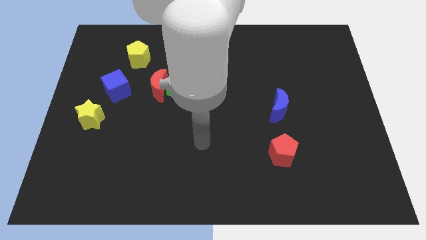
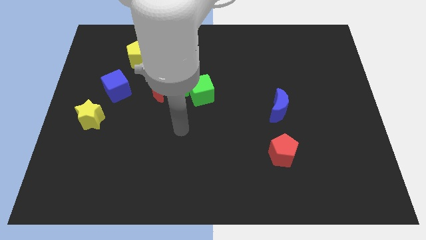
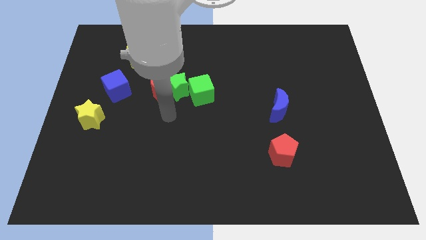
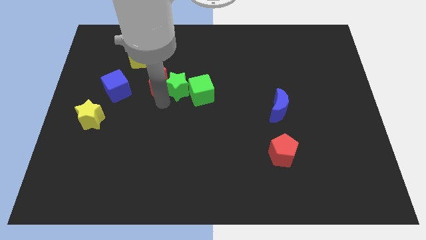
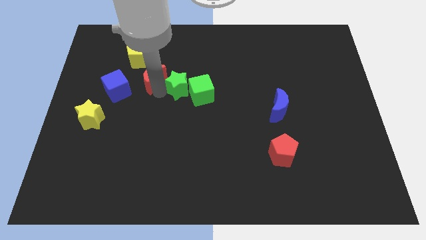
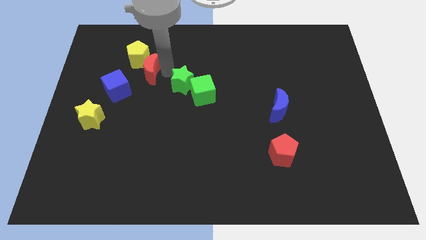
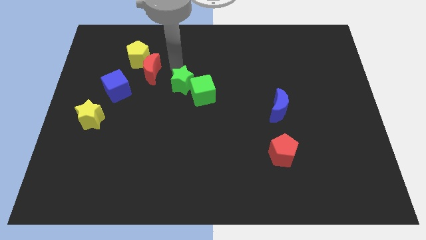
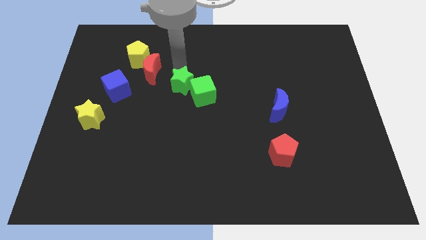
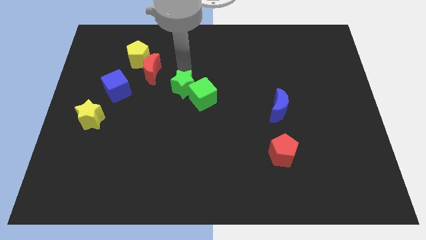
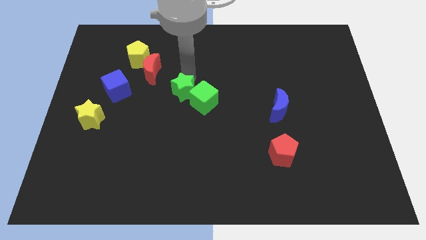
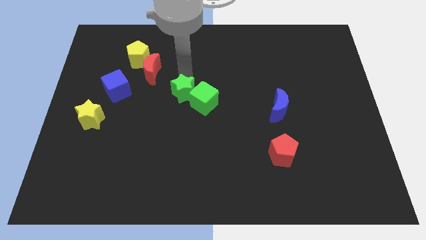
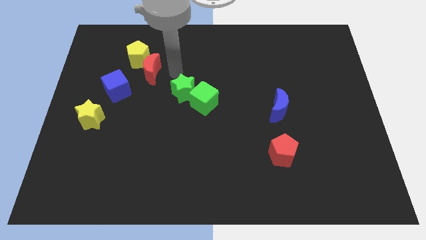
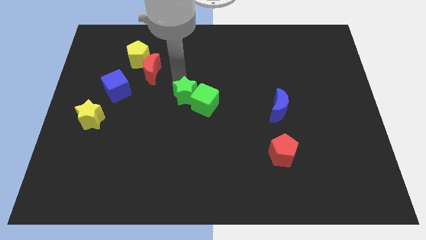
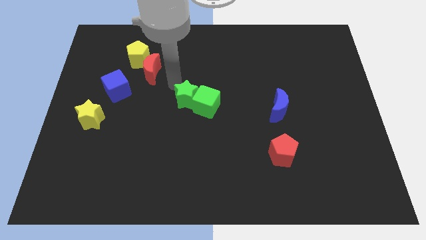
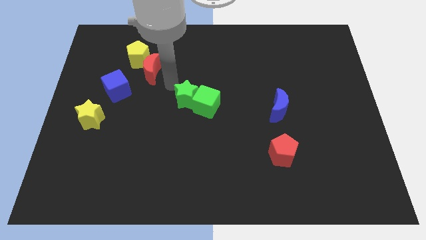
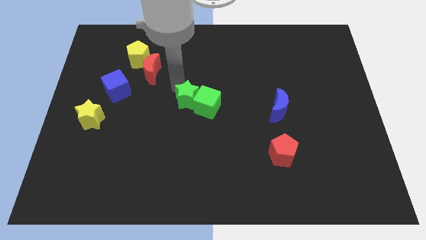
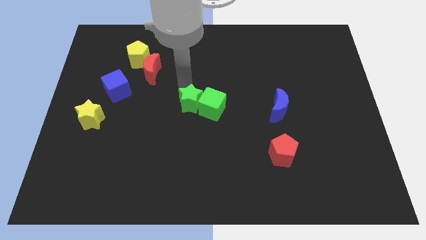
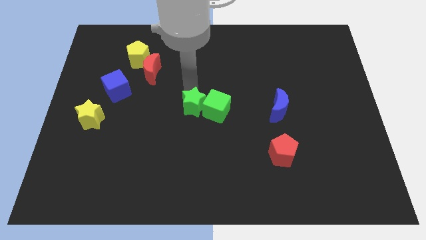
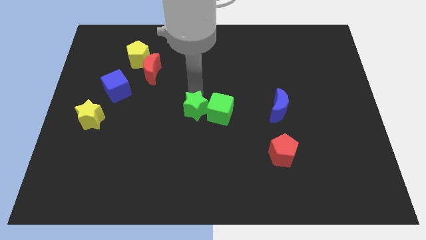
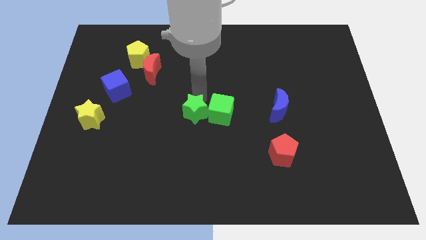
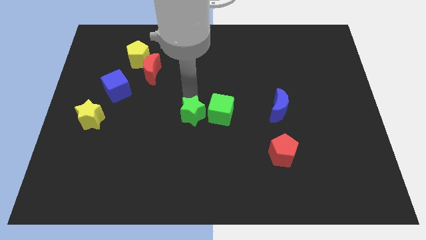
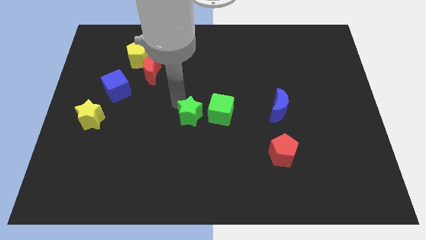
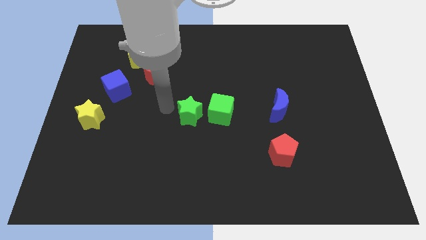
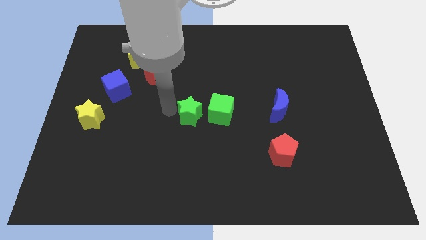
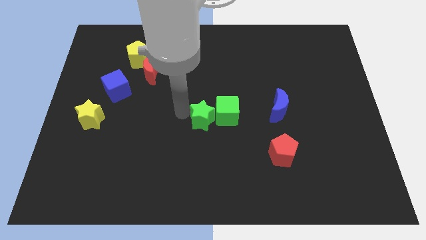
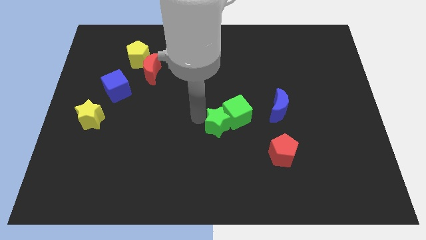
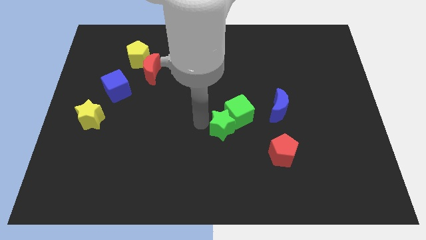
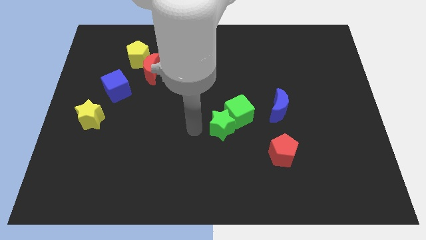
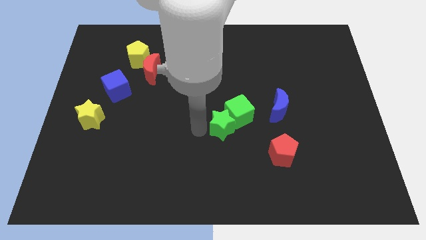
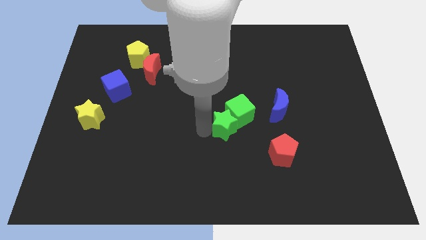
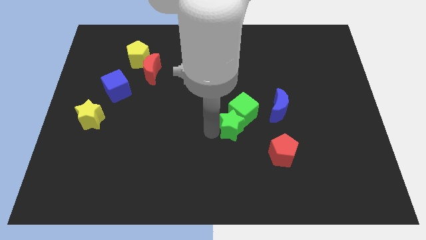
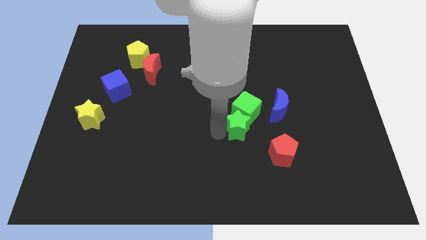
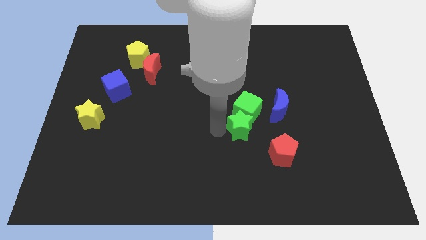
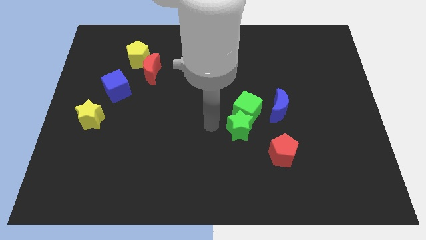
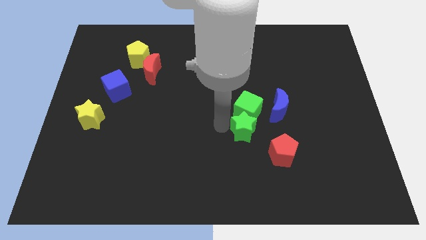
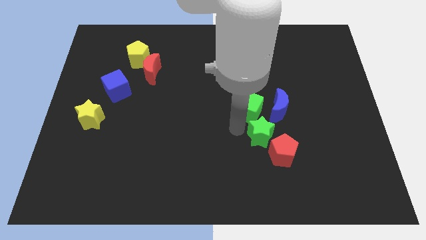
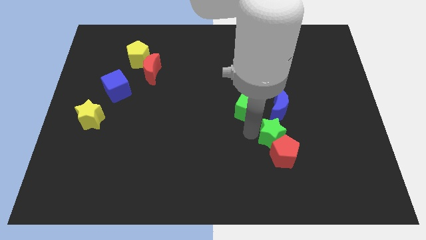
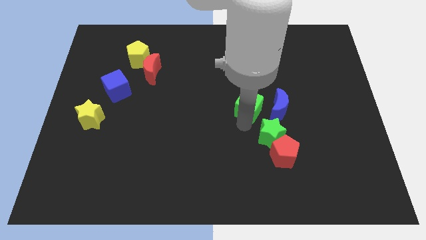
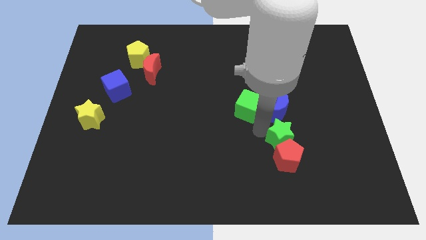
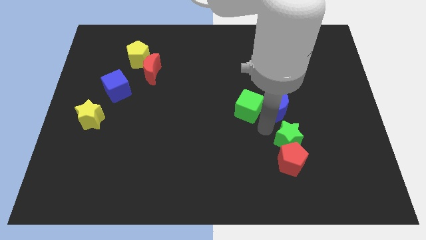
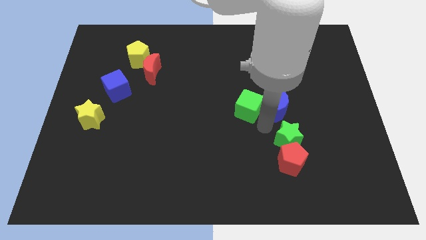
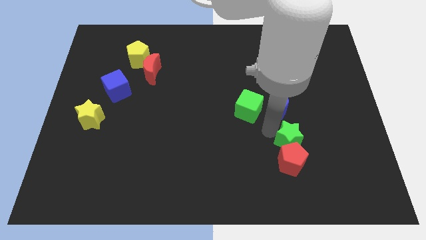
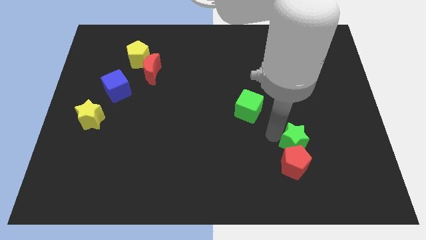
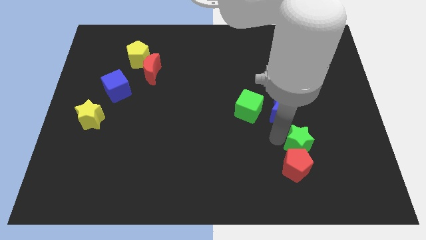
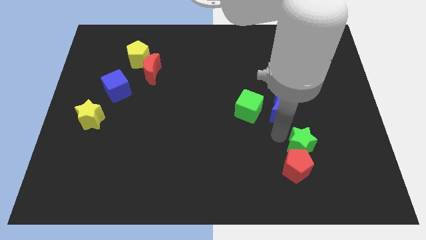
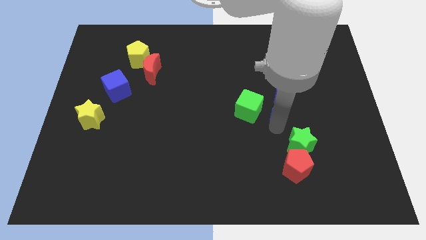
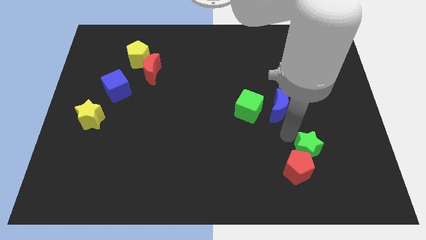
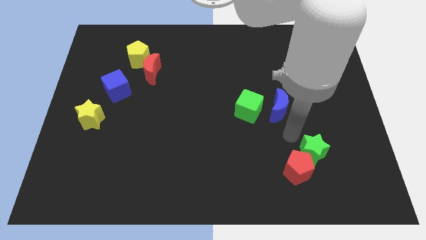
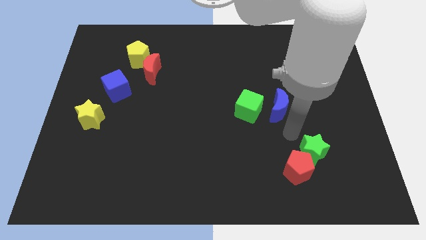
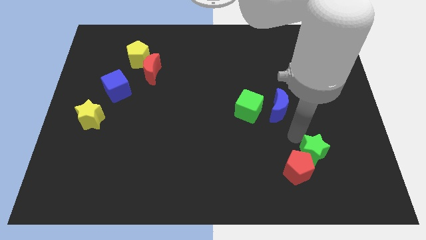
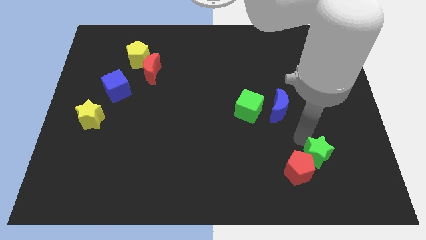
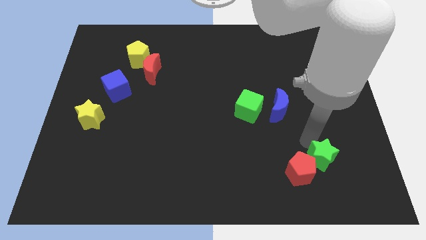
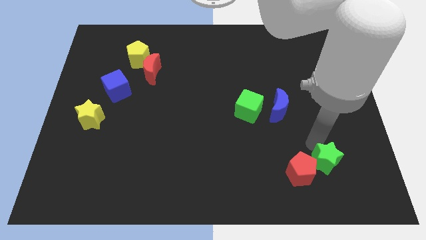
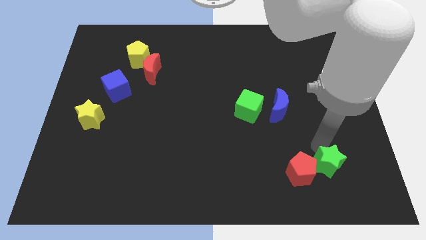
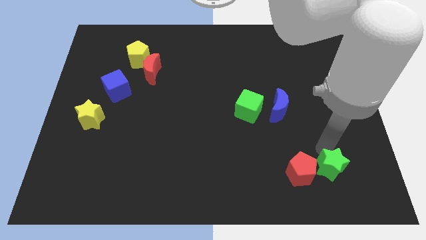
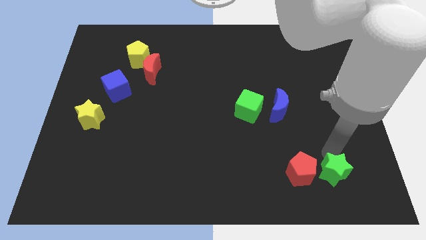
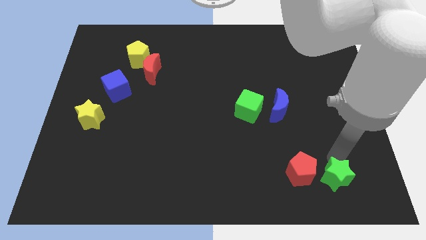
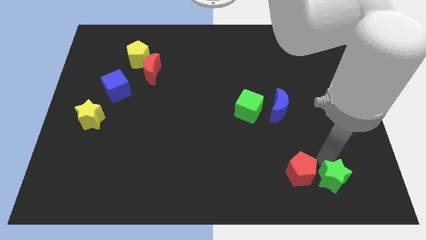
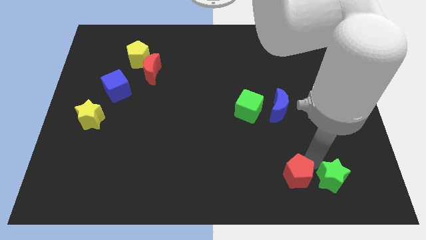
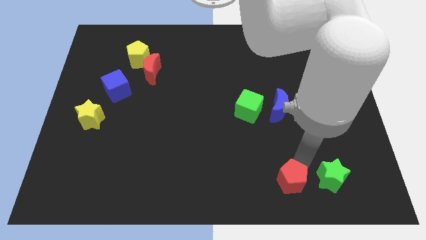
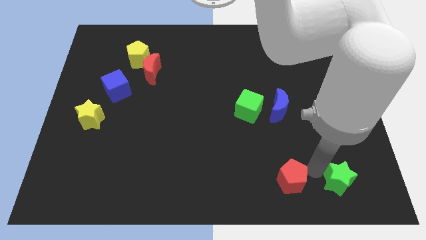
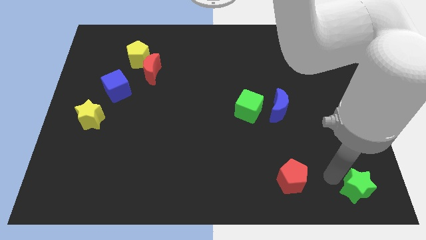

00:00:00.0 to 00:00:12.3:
move the green star to the bottom right of the board
